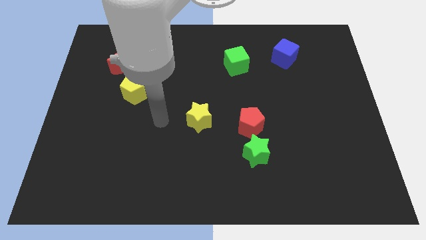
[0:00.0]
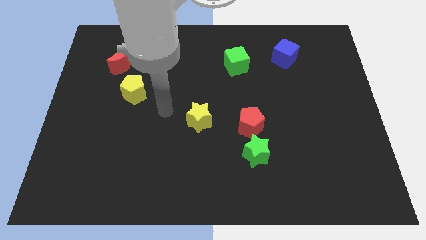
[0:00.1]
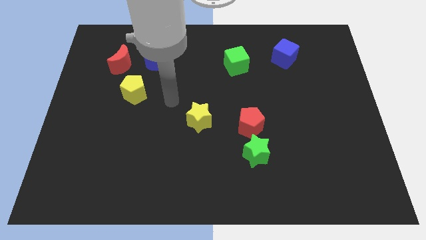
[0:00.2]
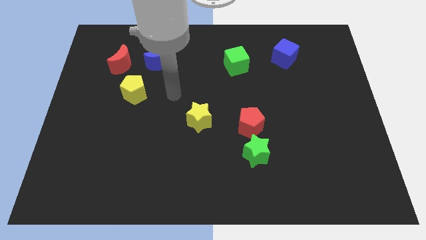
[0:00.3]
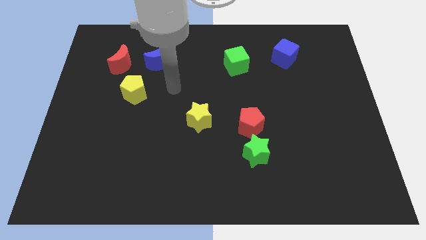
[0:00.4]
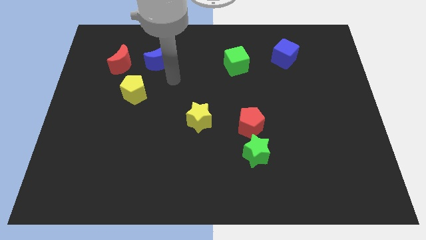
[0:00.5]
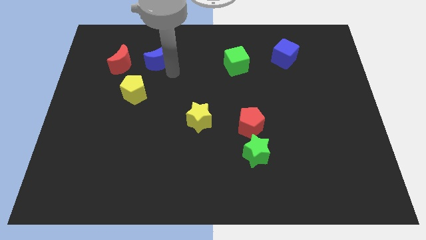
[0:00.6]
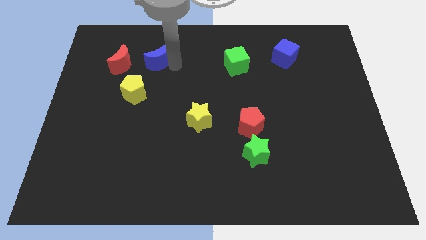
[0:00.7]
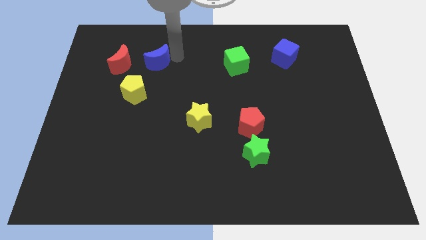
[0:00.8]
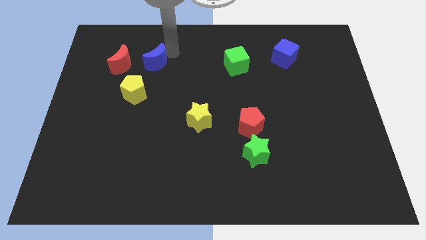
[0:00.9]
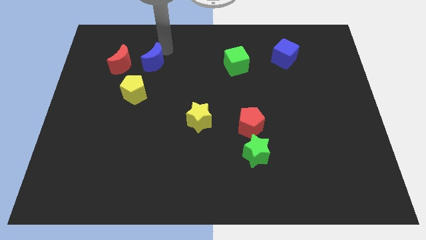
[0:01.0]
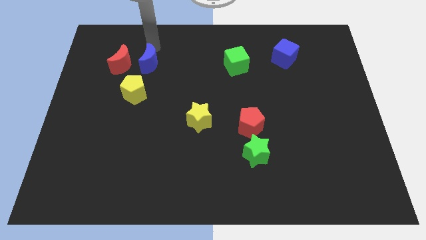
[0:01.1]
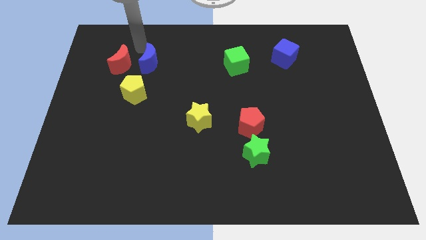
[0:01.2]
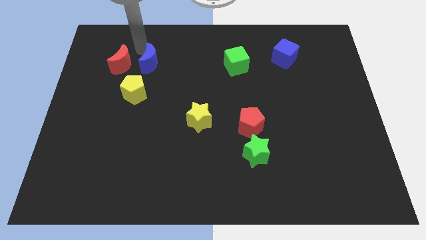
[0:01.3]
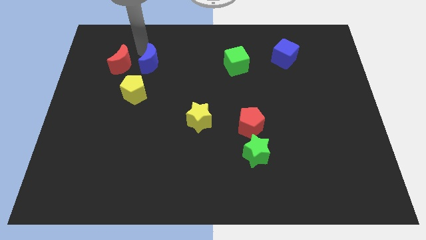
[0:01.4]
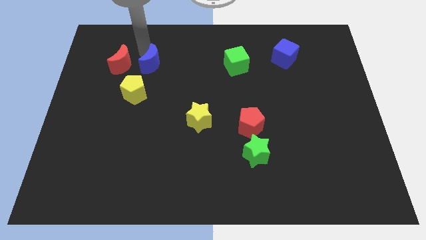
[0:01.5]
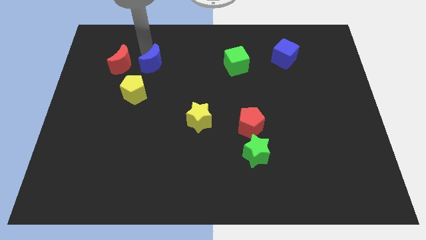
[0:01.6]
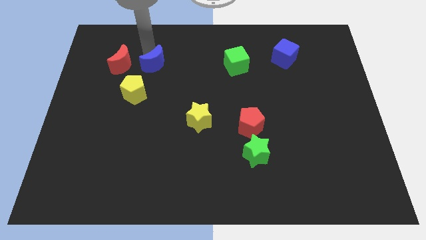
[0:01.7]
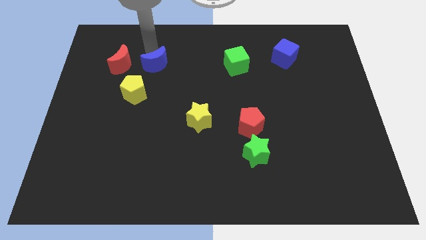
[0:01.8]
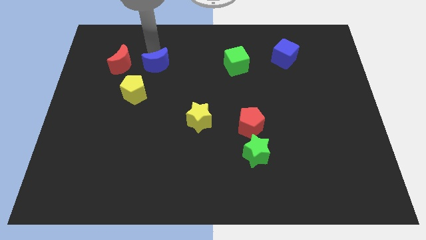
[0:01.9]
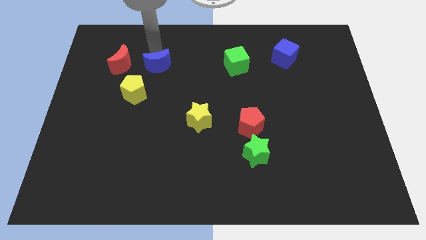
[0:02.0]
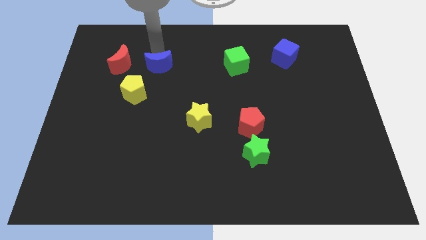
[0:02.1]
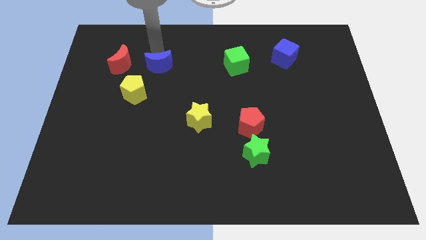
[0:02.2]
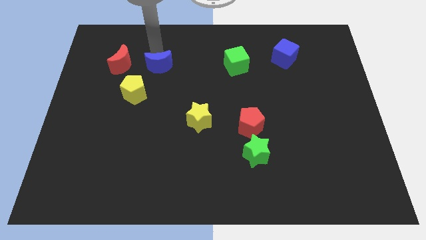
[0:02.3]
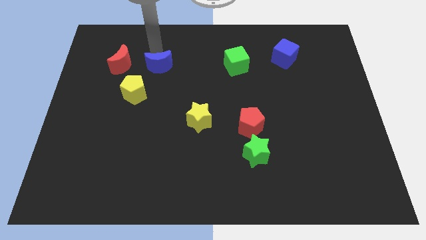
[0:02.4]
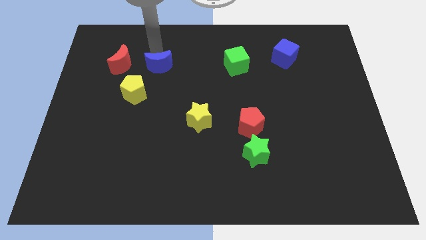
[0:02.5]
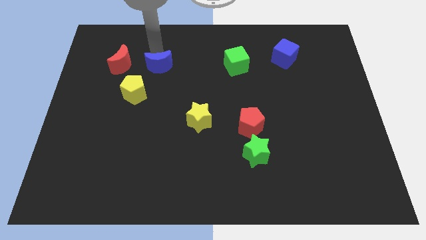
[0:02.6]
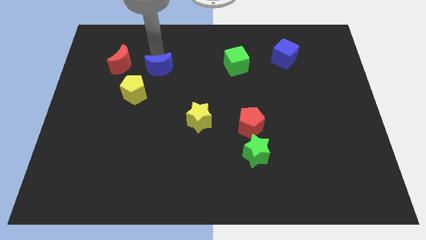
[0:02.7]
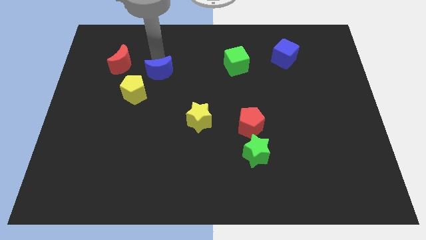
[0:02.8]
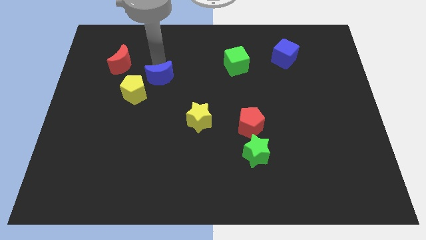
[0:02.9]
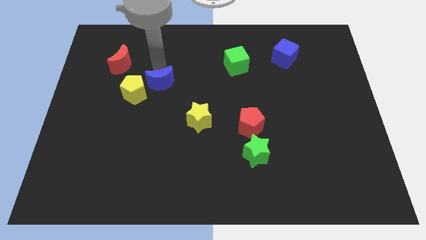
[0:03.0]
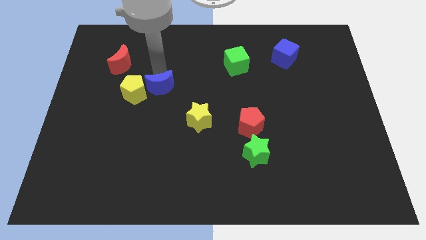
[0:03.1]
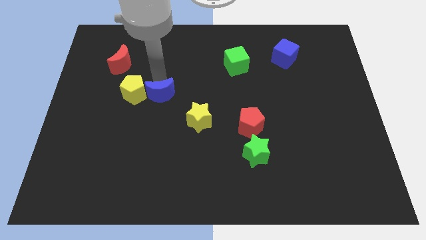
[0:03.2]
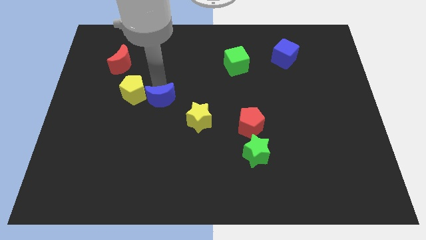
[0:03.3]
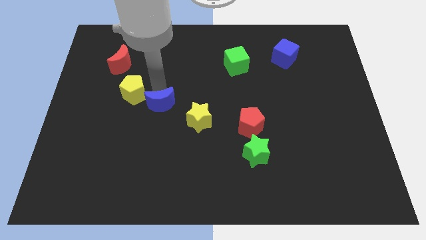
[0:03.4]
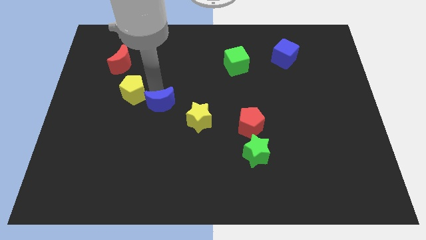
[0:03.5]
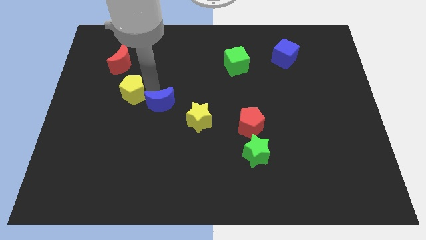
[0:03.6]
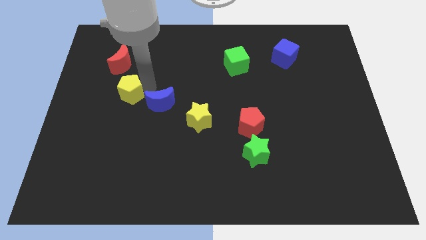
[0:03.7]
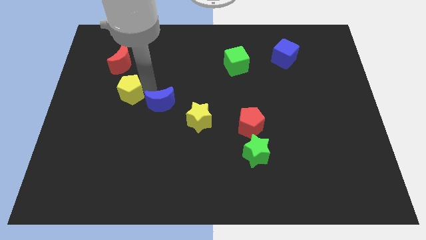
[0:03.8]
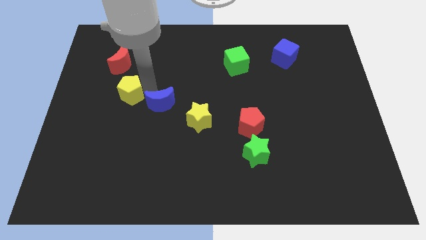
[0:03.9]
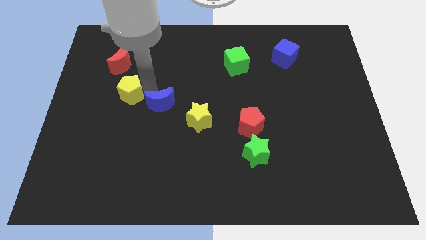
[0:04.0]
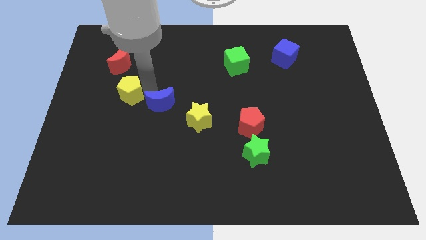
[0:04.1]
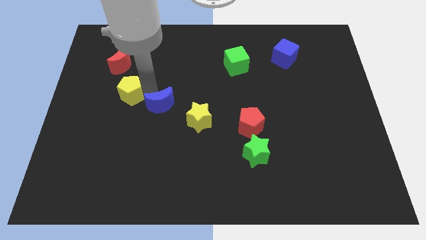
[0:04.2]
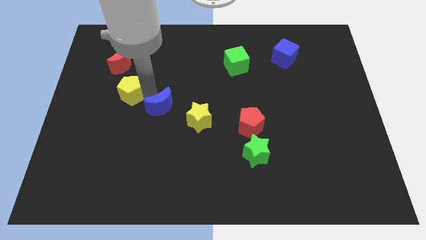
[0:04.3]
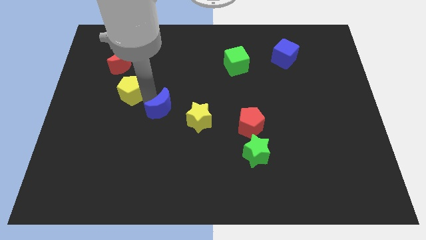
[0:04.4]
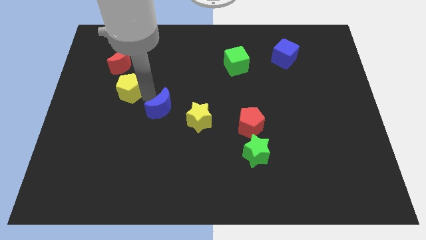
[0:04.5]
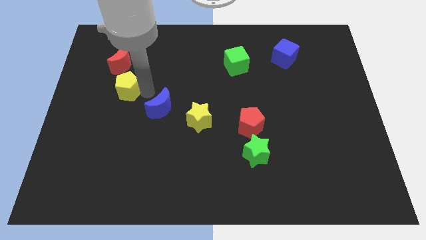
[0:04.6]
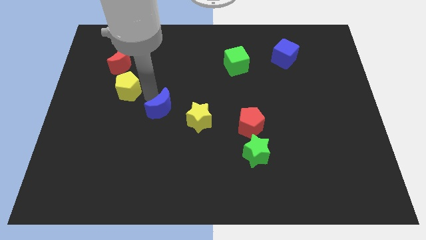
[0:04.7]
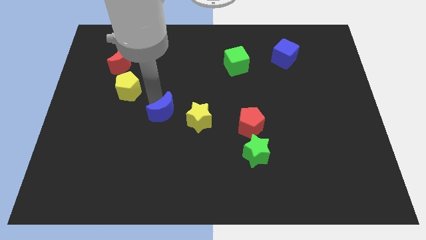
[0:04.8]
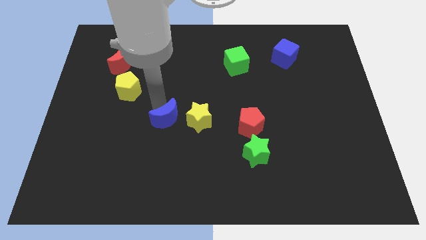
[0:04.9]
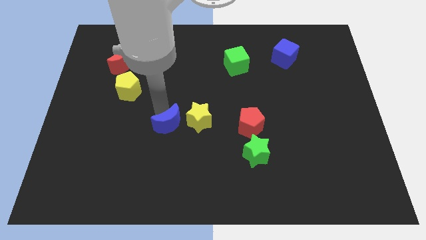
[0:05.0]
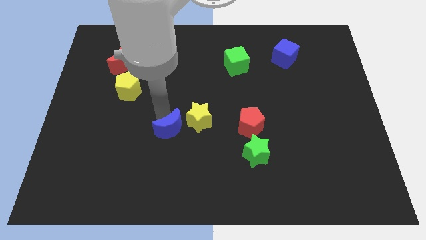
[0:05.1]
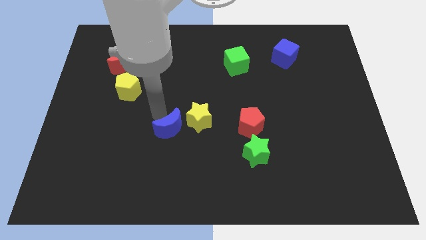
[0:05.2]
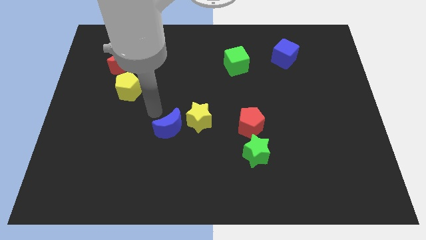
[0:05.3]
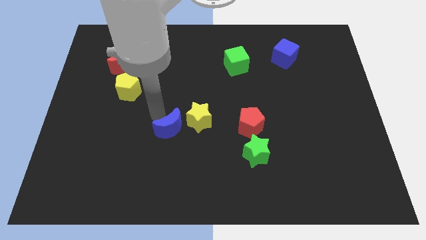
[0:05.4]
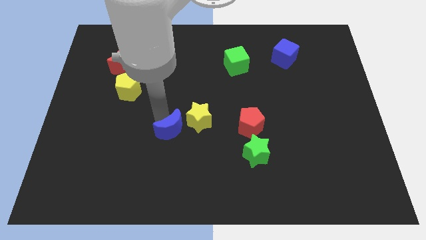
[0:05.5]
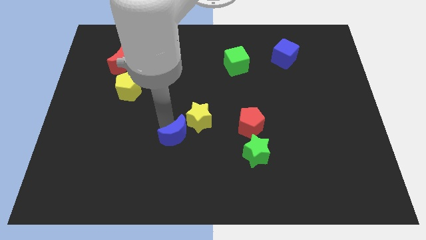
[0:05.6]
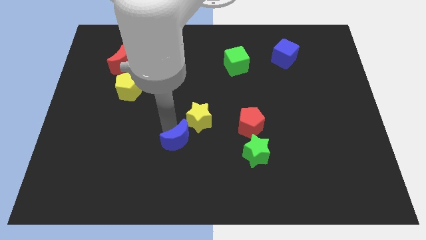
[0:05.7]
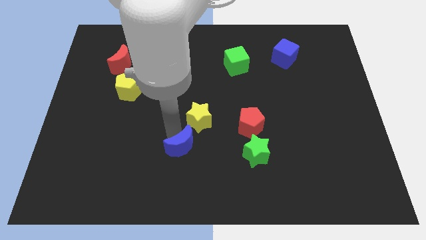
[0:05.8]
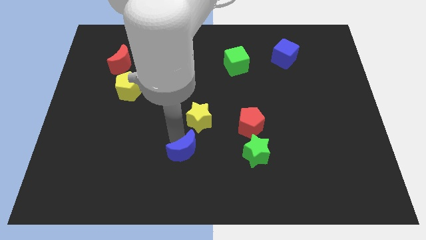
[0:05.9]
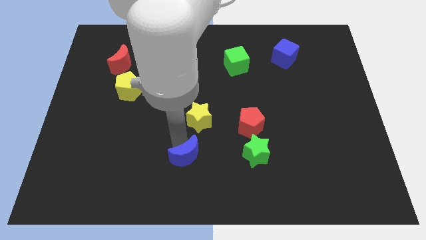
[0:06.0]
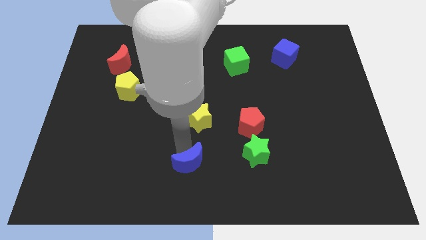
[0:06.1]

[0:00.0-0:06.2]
put the blue moon to the bottom
